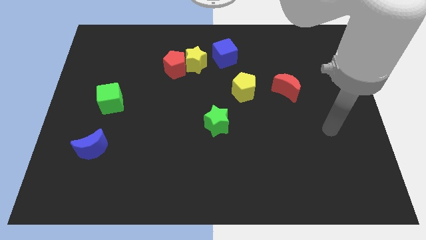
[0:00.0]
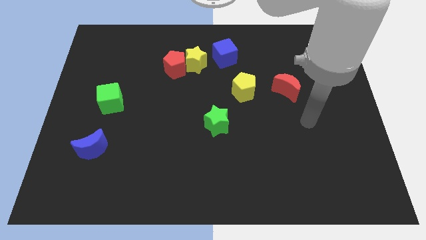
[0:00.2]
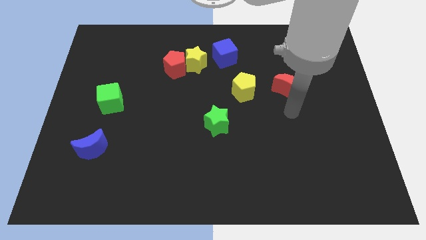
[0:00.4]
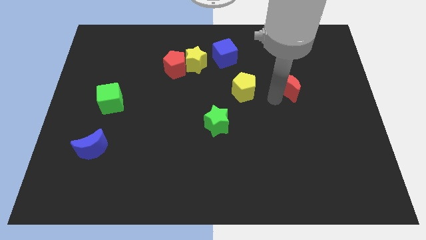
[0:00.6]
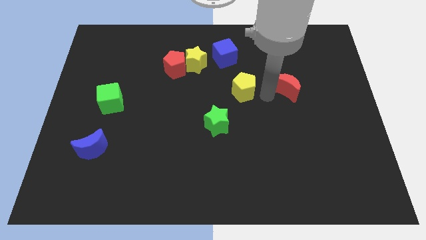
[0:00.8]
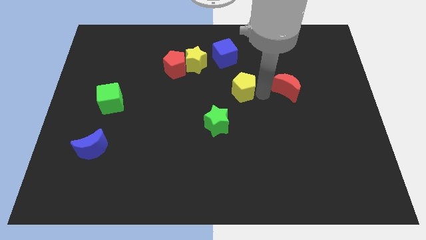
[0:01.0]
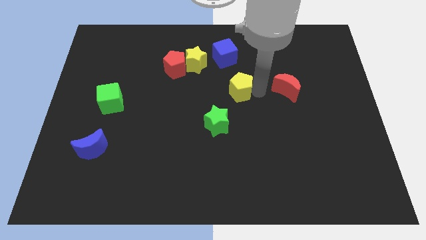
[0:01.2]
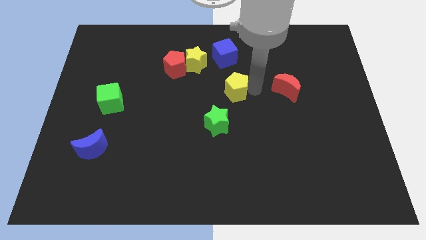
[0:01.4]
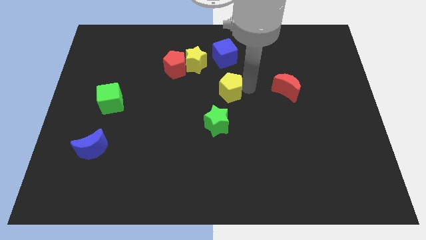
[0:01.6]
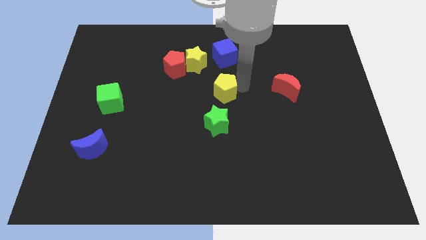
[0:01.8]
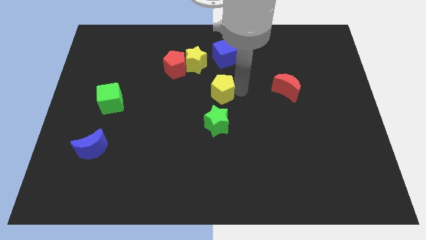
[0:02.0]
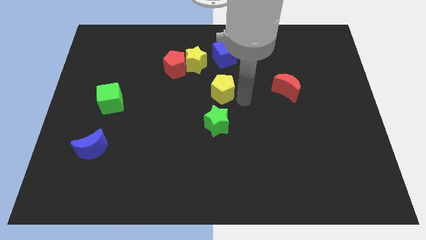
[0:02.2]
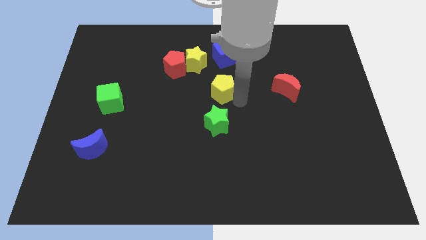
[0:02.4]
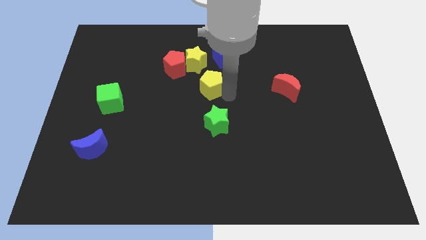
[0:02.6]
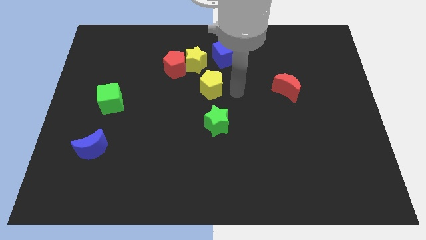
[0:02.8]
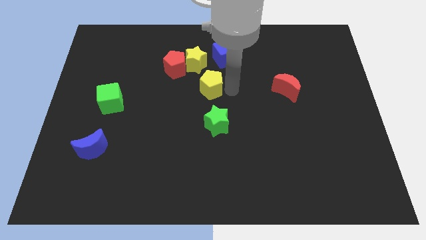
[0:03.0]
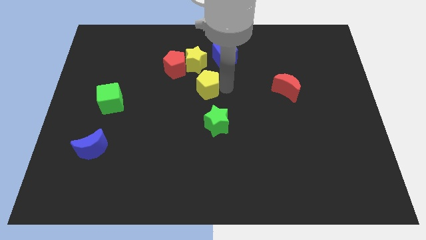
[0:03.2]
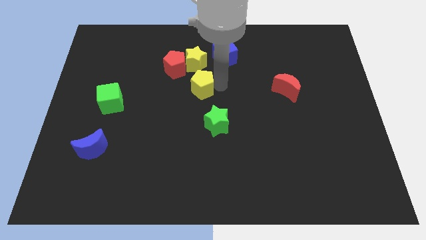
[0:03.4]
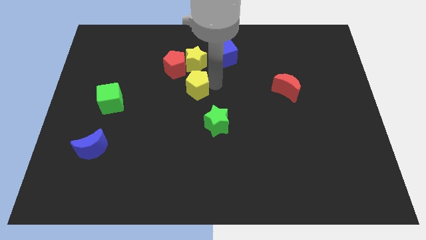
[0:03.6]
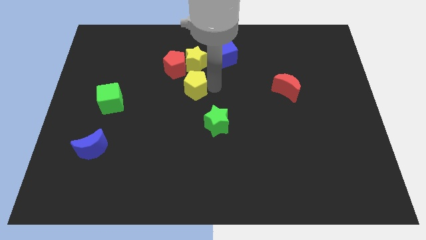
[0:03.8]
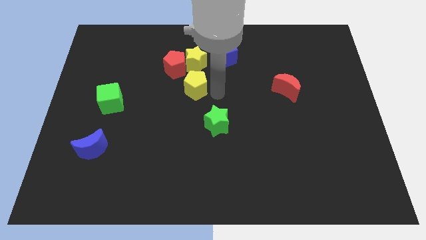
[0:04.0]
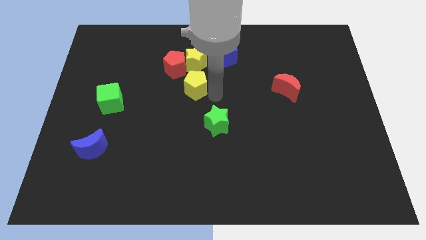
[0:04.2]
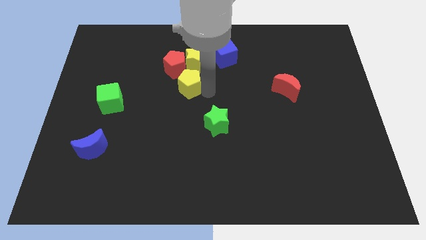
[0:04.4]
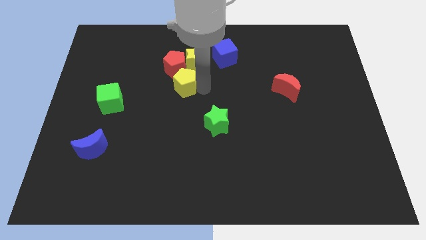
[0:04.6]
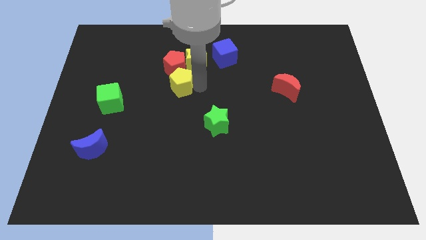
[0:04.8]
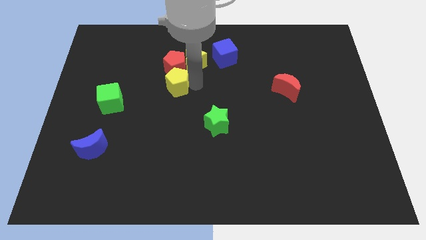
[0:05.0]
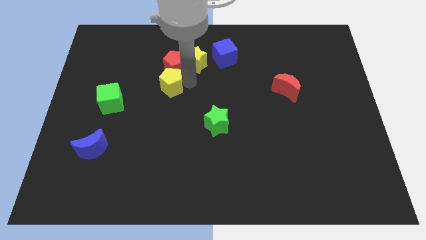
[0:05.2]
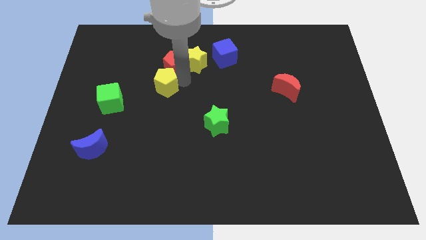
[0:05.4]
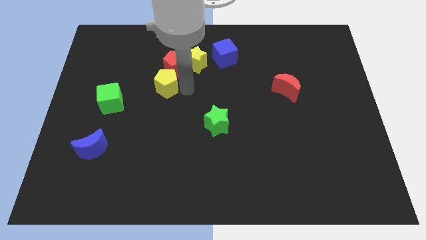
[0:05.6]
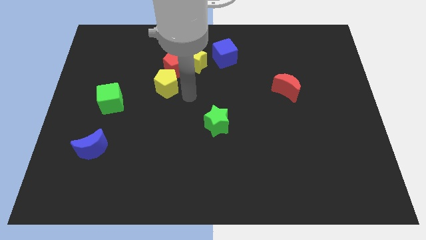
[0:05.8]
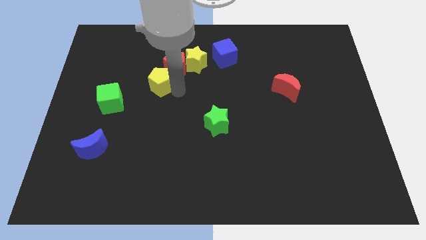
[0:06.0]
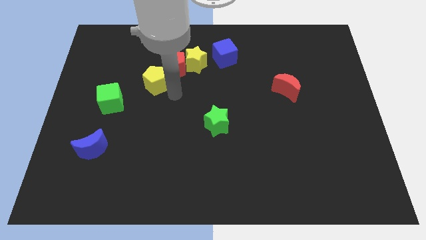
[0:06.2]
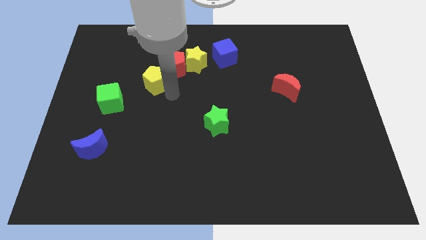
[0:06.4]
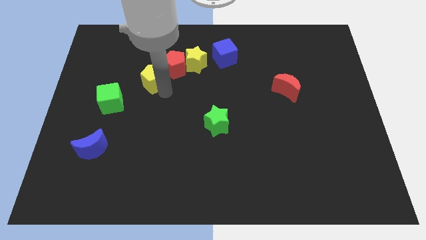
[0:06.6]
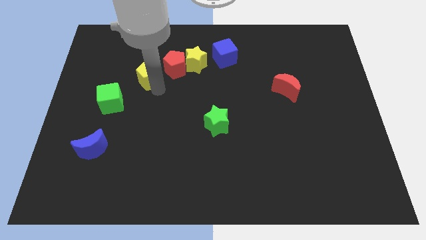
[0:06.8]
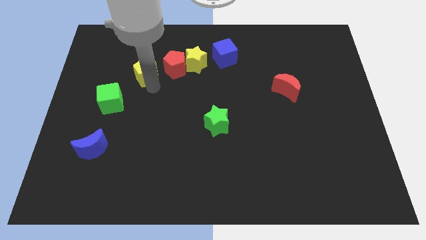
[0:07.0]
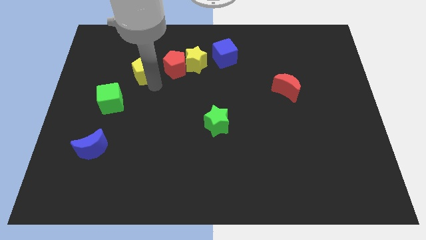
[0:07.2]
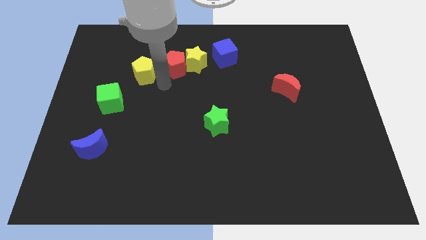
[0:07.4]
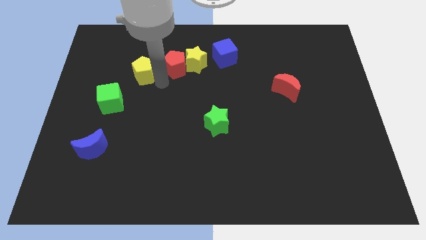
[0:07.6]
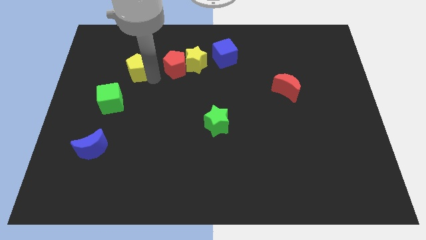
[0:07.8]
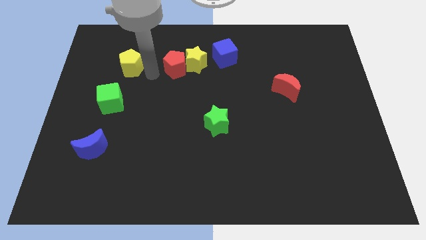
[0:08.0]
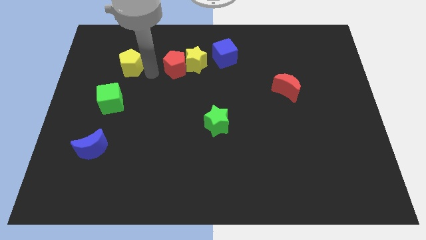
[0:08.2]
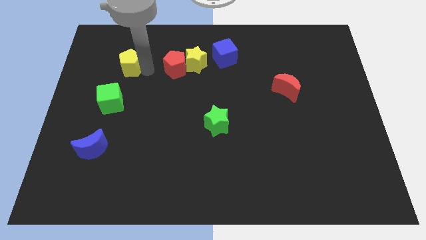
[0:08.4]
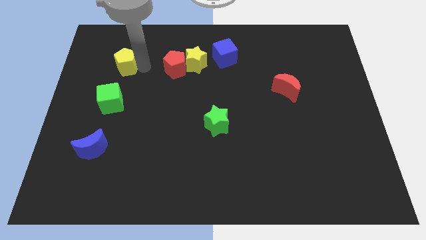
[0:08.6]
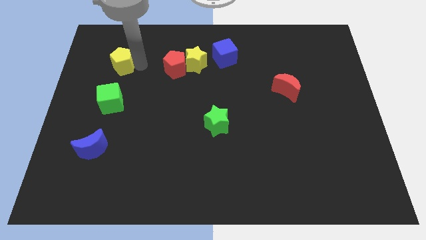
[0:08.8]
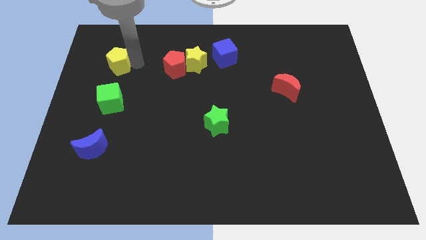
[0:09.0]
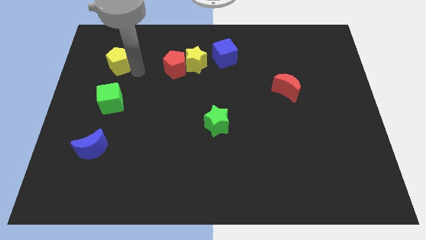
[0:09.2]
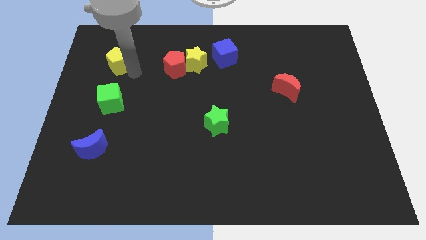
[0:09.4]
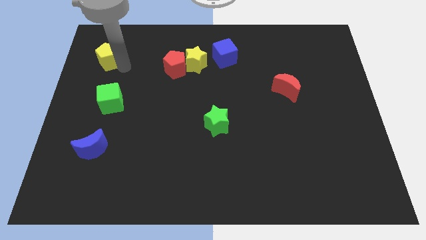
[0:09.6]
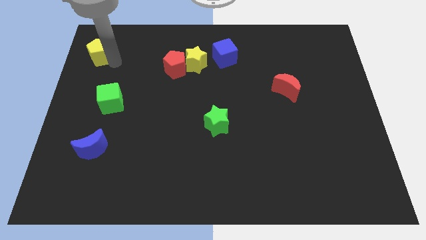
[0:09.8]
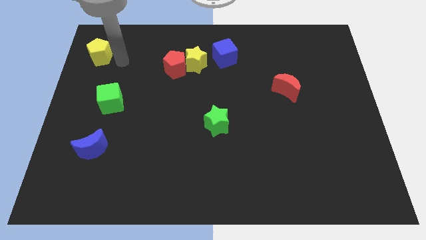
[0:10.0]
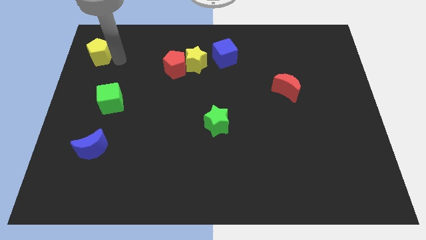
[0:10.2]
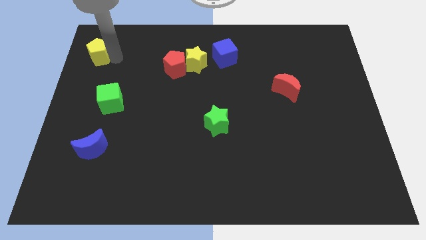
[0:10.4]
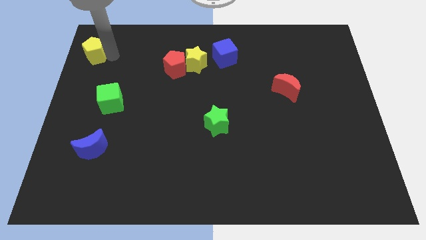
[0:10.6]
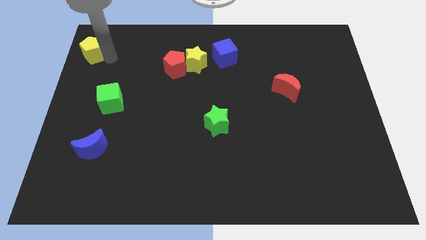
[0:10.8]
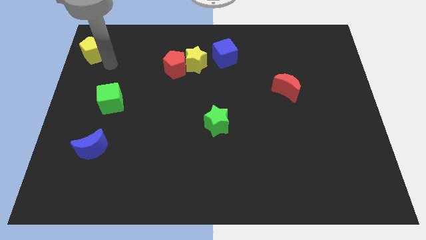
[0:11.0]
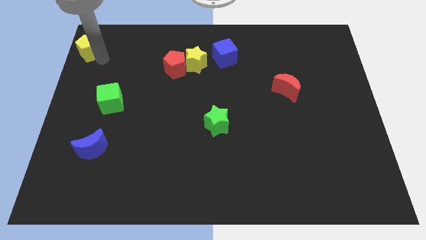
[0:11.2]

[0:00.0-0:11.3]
slide the yellow pentagon to the top left corner

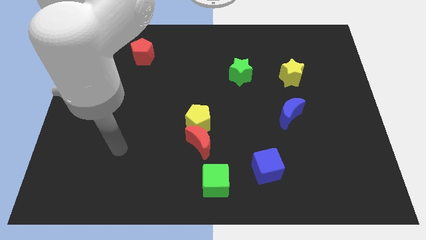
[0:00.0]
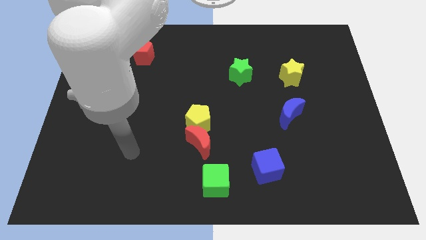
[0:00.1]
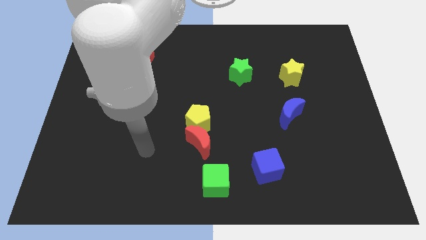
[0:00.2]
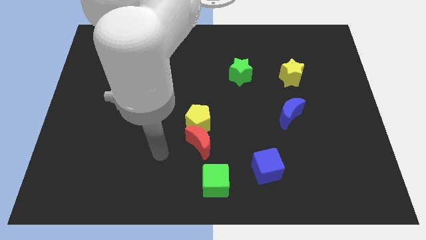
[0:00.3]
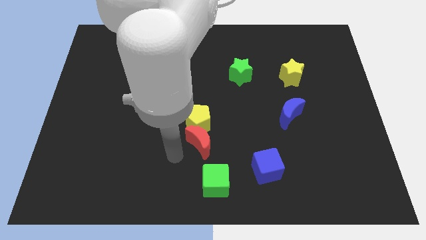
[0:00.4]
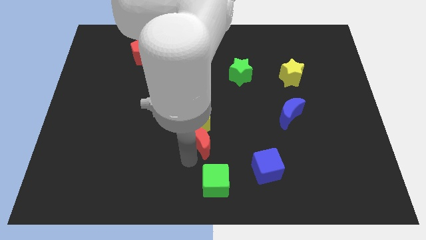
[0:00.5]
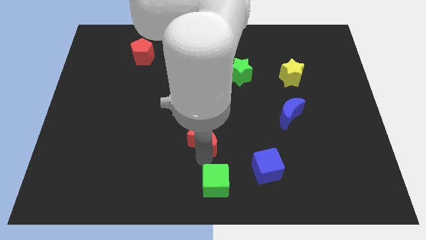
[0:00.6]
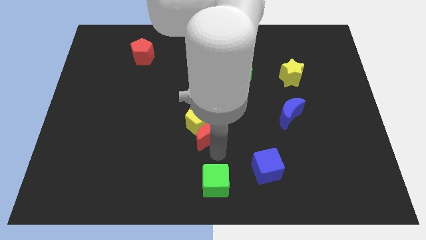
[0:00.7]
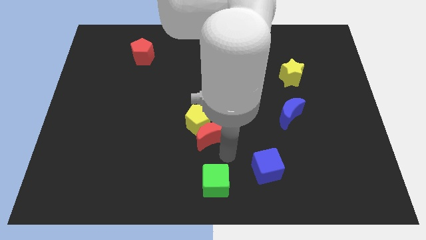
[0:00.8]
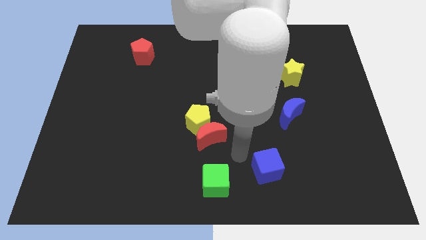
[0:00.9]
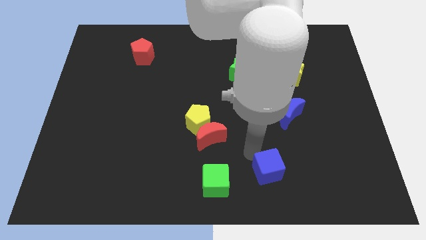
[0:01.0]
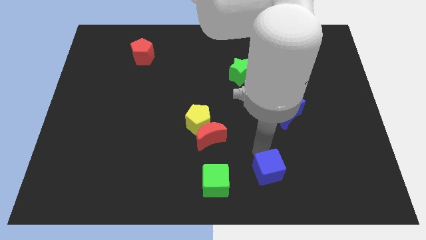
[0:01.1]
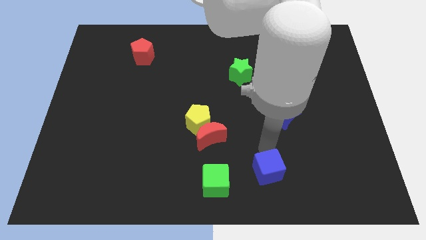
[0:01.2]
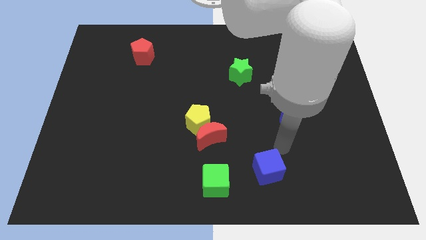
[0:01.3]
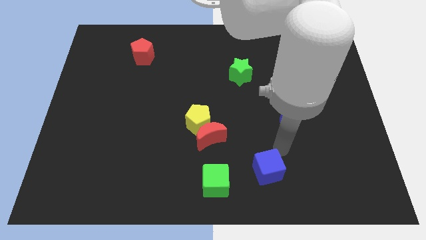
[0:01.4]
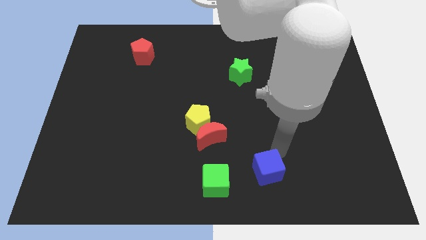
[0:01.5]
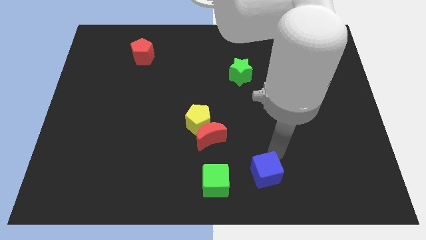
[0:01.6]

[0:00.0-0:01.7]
slide the blue cube to the bottom side
